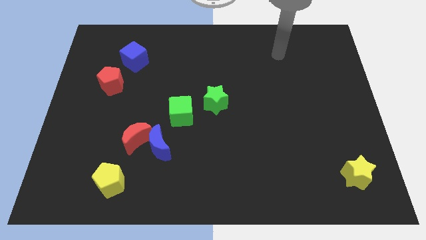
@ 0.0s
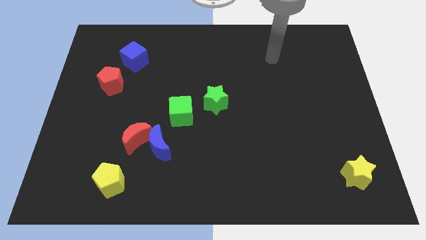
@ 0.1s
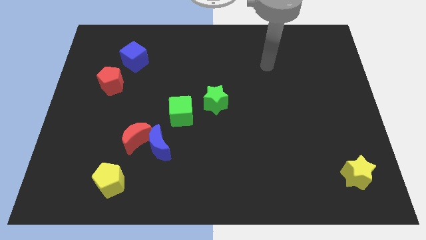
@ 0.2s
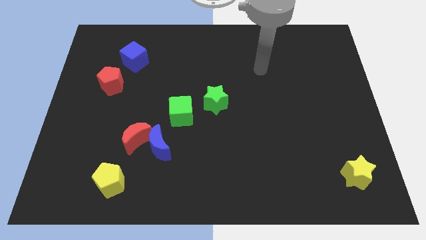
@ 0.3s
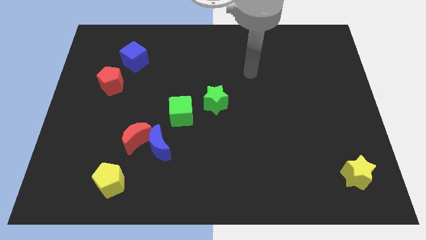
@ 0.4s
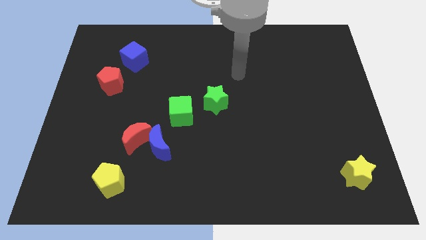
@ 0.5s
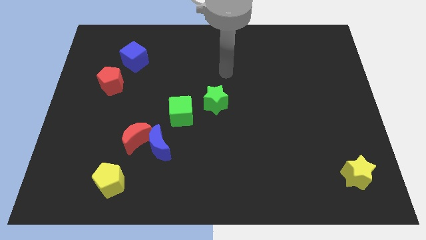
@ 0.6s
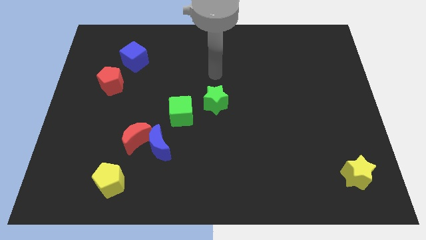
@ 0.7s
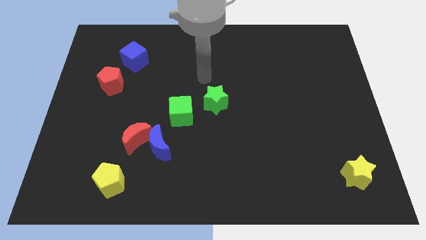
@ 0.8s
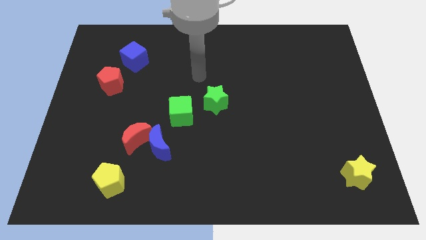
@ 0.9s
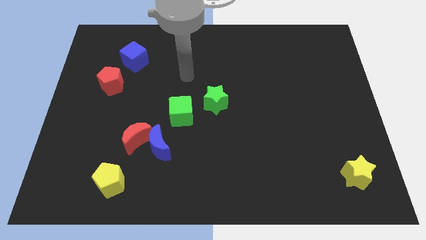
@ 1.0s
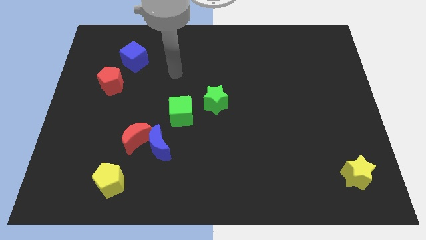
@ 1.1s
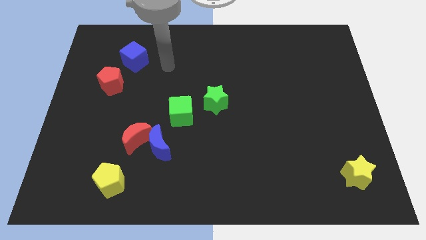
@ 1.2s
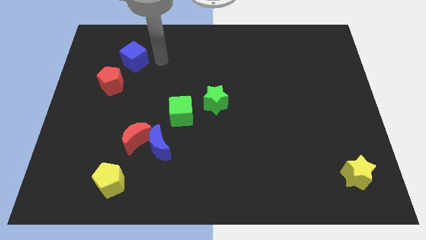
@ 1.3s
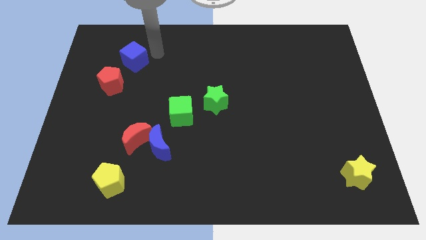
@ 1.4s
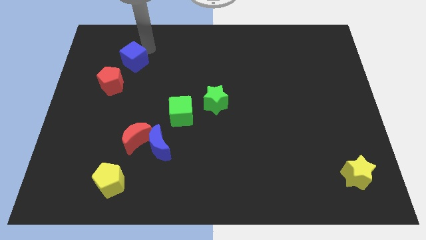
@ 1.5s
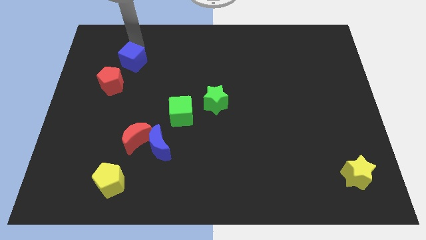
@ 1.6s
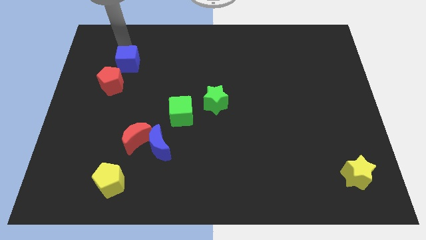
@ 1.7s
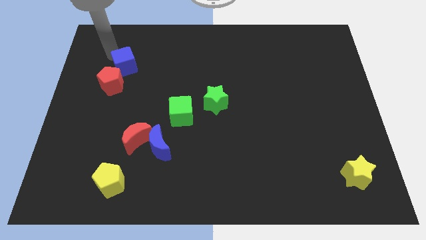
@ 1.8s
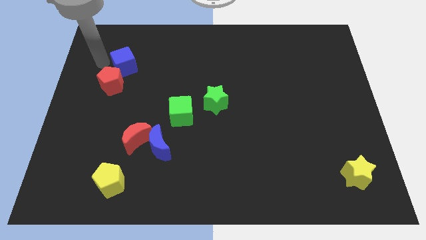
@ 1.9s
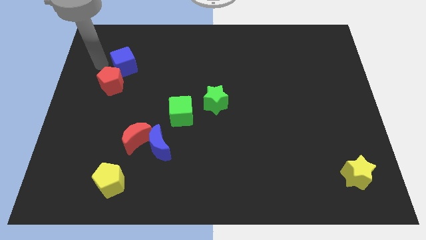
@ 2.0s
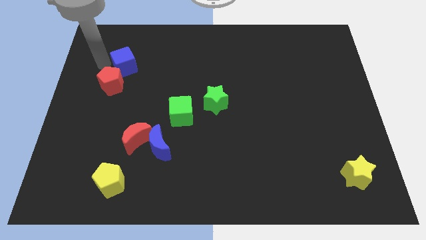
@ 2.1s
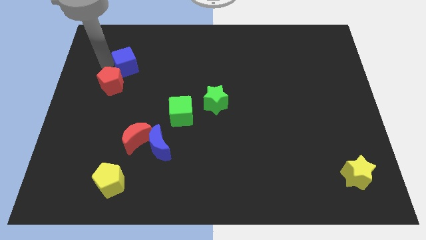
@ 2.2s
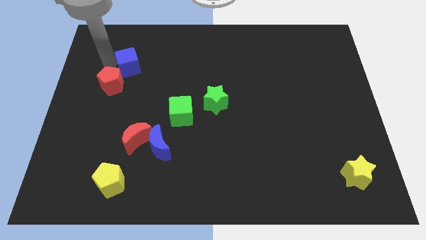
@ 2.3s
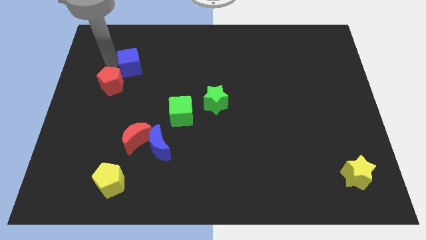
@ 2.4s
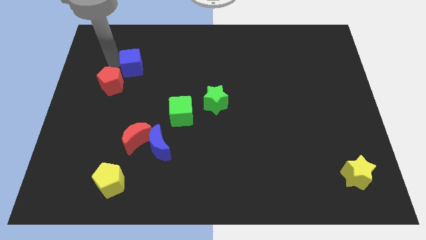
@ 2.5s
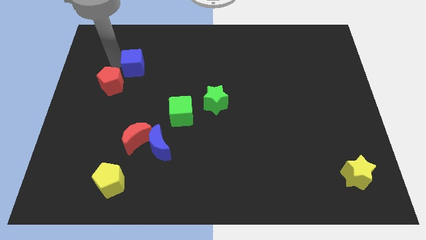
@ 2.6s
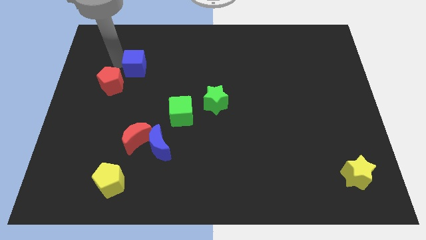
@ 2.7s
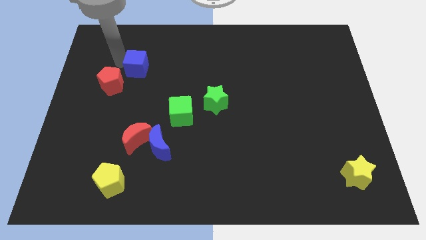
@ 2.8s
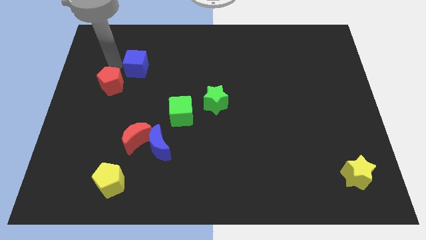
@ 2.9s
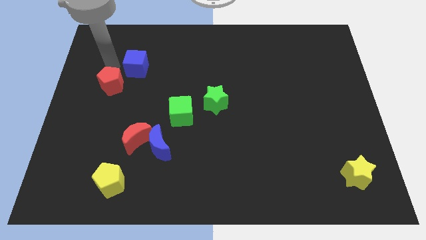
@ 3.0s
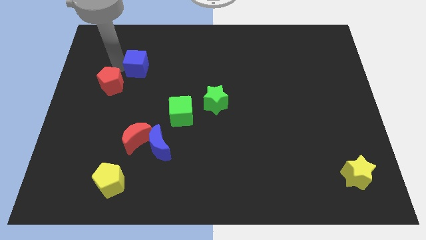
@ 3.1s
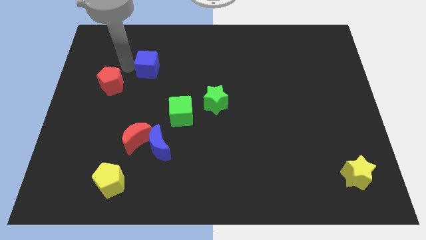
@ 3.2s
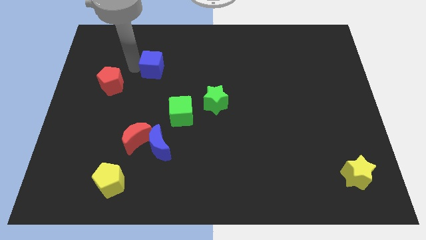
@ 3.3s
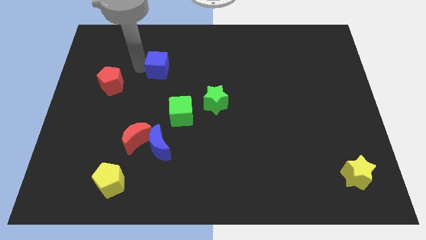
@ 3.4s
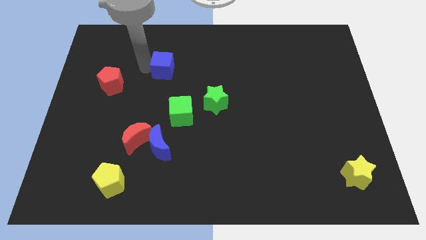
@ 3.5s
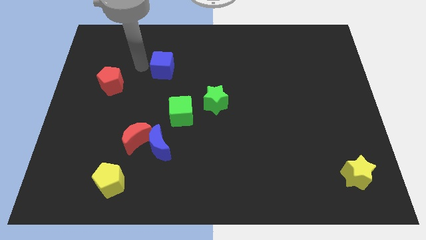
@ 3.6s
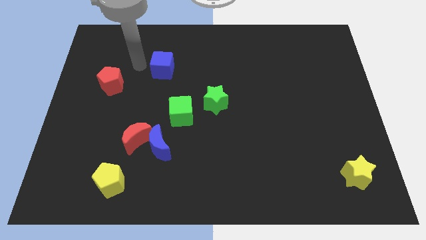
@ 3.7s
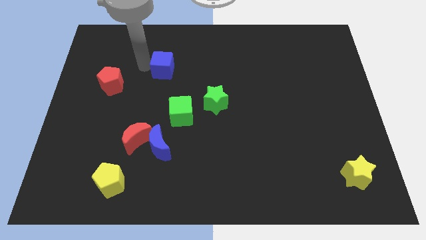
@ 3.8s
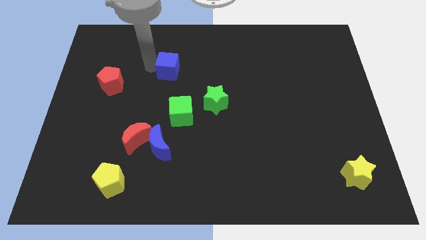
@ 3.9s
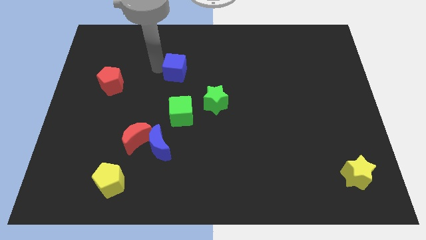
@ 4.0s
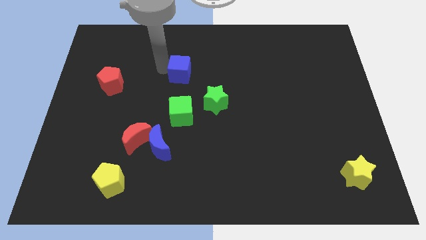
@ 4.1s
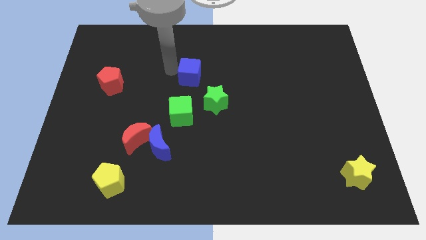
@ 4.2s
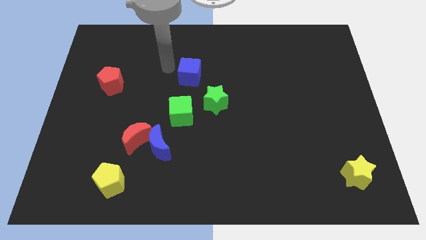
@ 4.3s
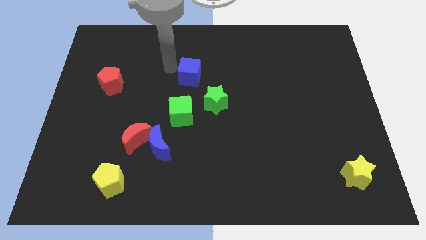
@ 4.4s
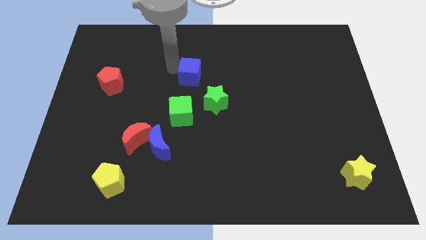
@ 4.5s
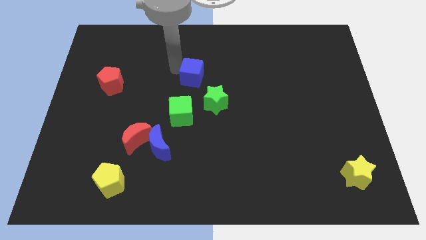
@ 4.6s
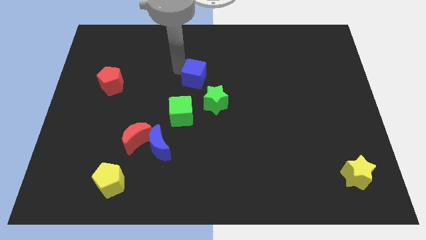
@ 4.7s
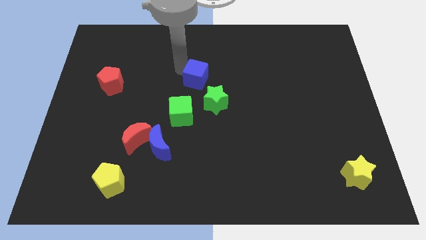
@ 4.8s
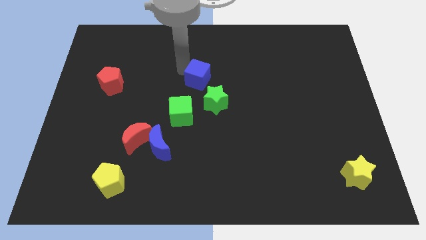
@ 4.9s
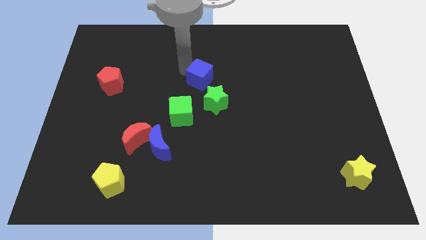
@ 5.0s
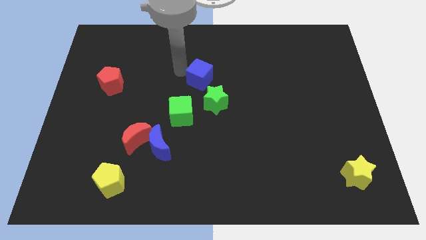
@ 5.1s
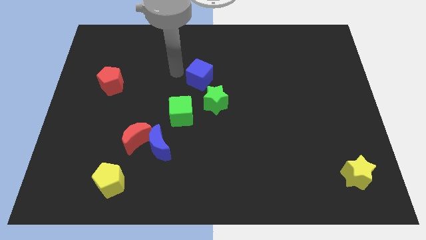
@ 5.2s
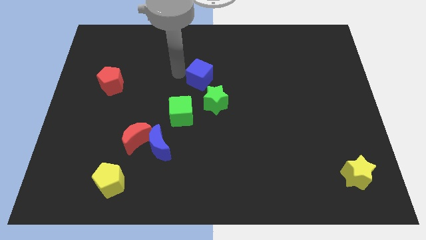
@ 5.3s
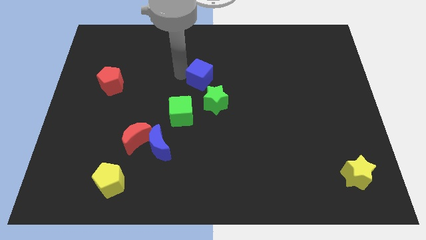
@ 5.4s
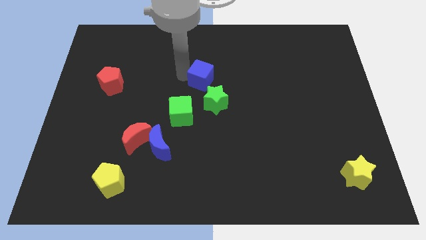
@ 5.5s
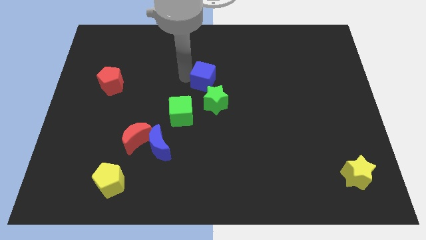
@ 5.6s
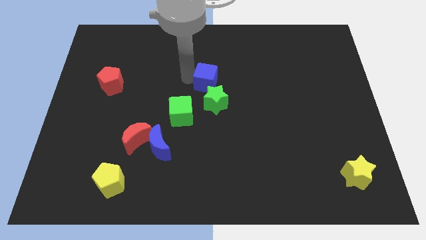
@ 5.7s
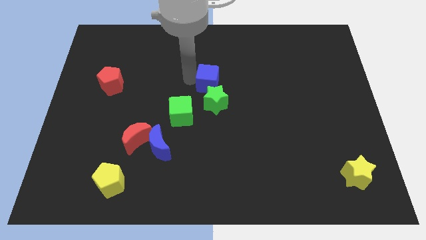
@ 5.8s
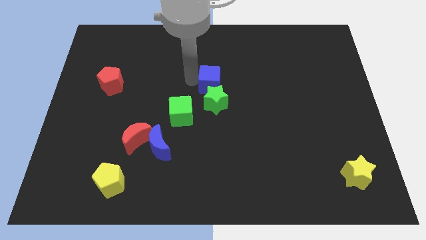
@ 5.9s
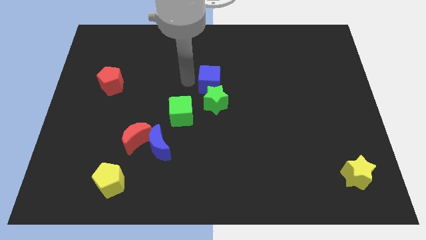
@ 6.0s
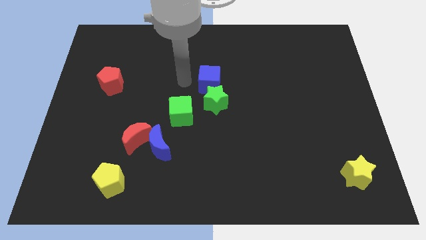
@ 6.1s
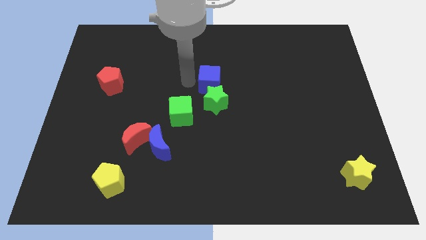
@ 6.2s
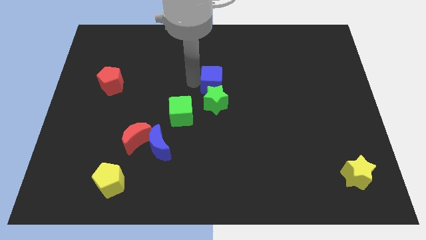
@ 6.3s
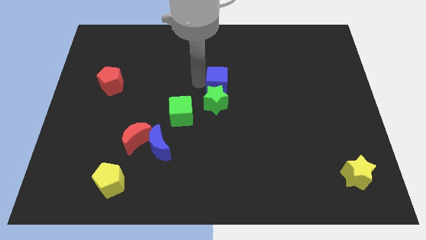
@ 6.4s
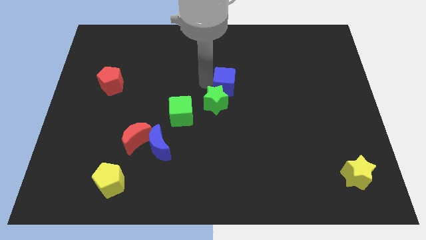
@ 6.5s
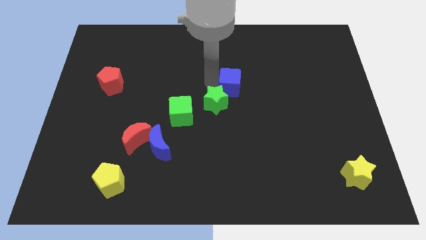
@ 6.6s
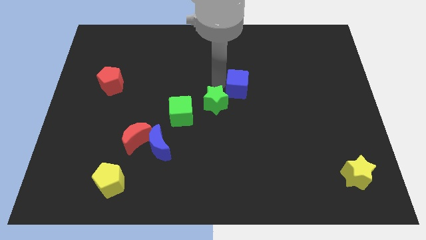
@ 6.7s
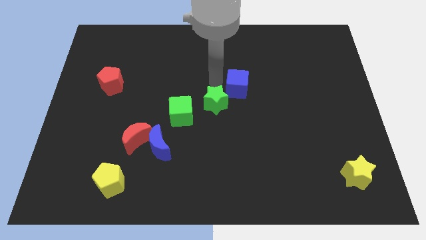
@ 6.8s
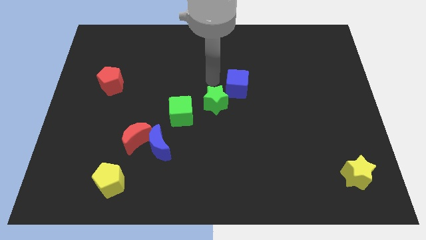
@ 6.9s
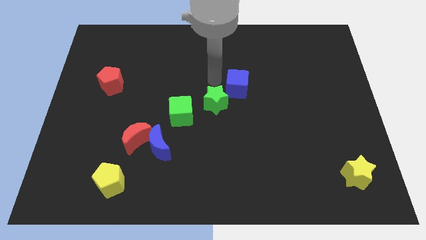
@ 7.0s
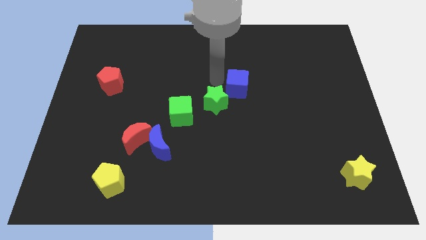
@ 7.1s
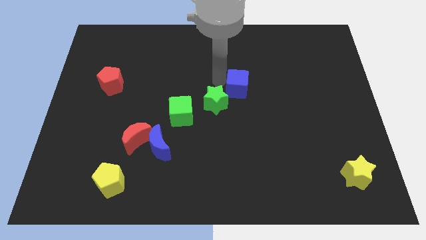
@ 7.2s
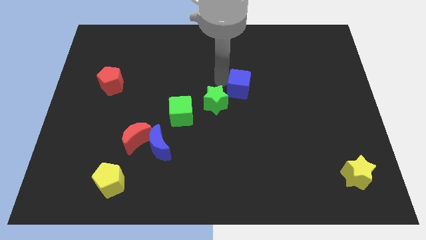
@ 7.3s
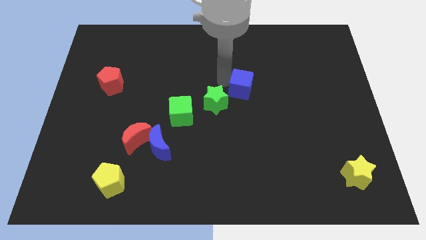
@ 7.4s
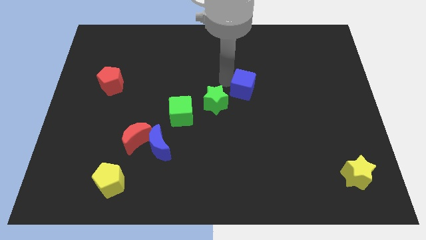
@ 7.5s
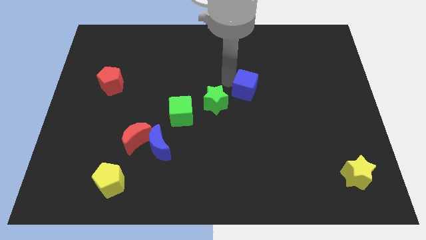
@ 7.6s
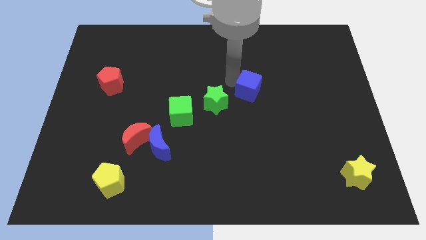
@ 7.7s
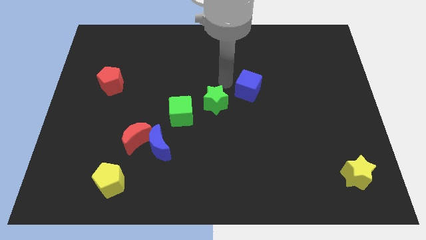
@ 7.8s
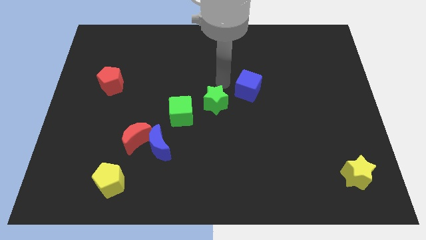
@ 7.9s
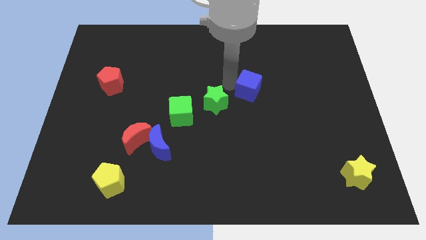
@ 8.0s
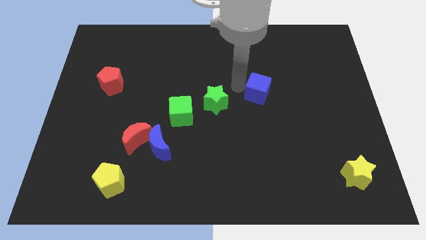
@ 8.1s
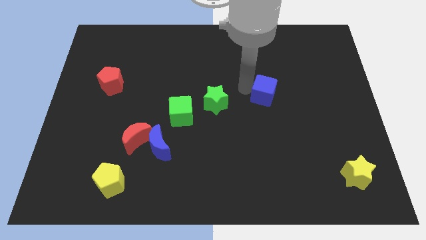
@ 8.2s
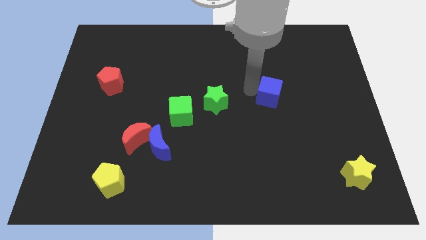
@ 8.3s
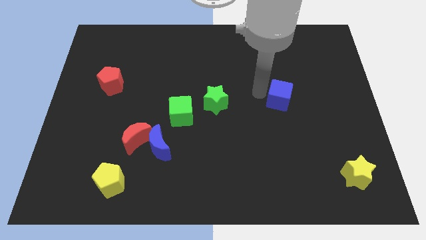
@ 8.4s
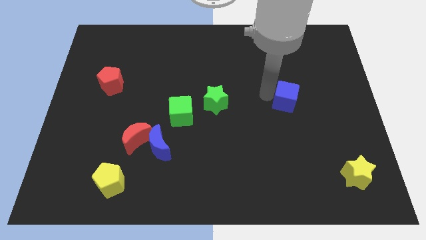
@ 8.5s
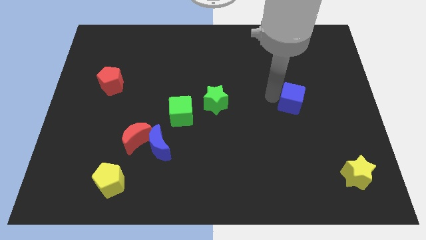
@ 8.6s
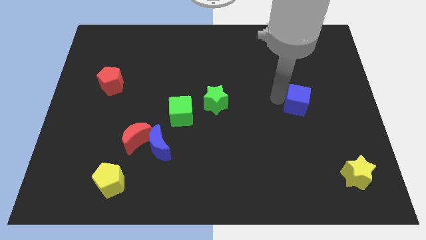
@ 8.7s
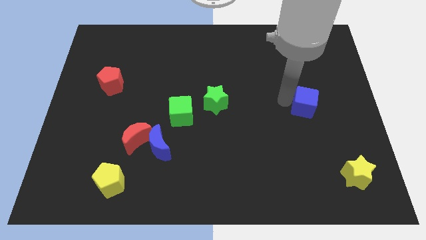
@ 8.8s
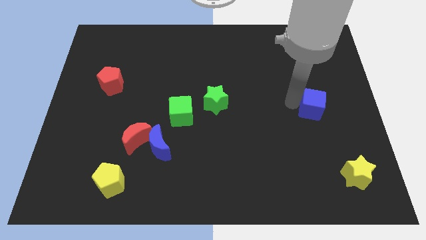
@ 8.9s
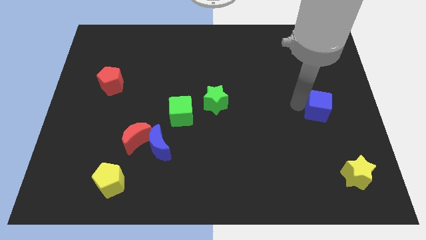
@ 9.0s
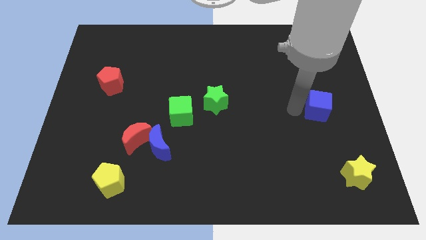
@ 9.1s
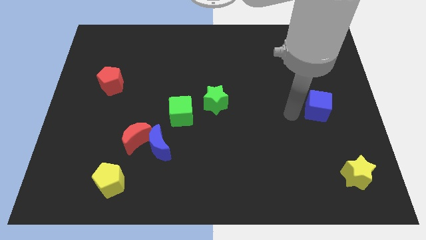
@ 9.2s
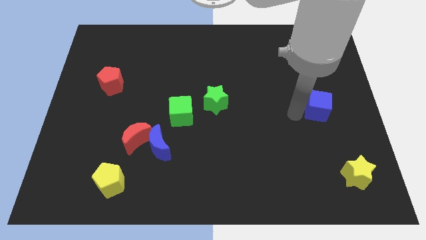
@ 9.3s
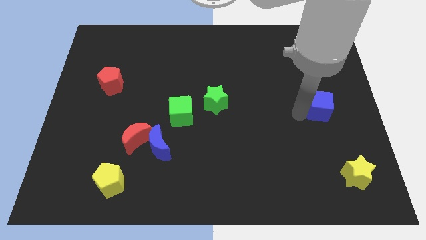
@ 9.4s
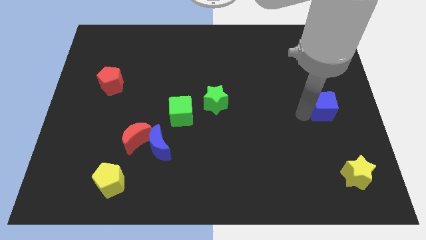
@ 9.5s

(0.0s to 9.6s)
slide the blue cube to the right side of the board
